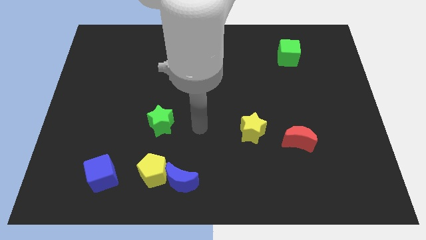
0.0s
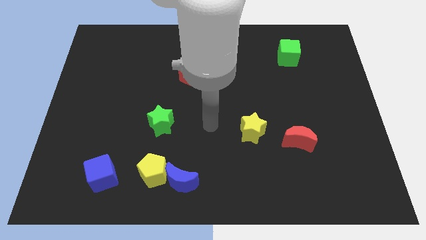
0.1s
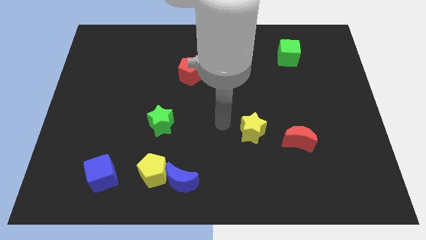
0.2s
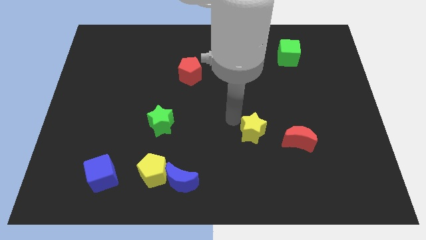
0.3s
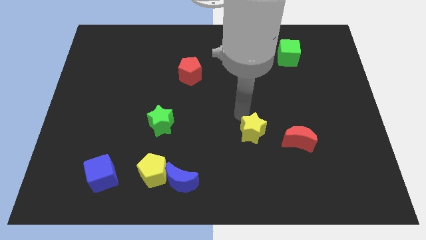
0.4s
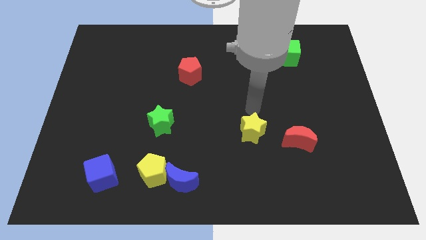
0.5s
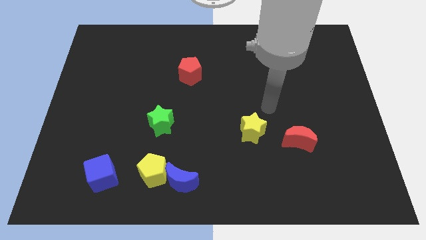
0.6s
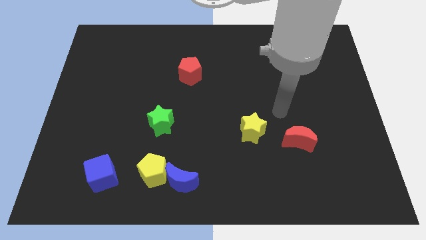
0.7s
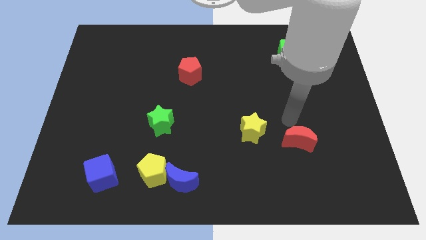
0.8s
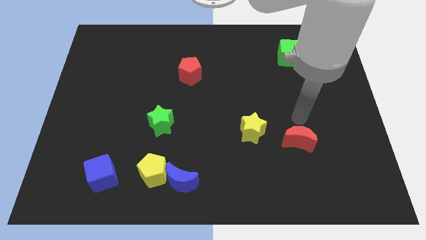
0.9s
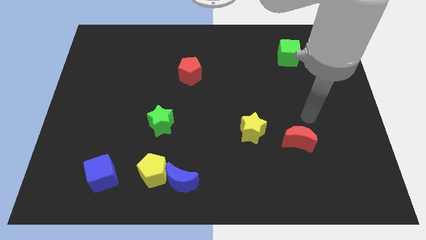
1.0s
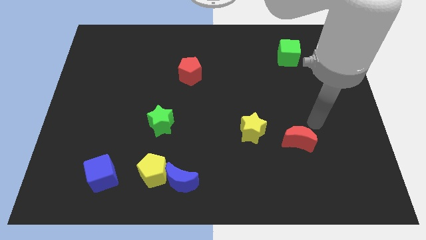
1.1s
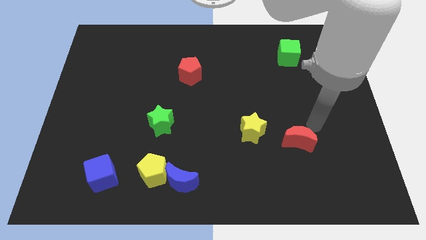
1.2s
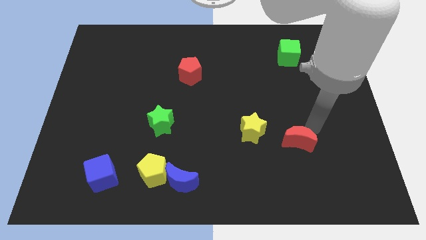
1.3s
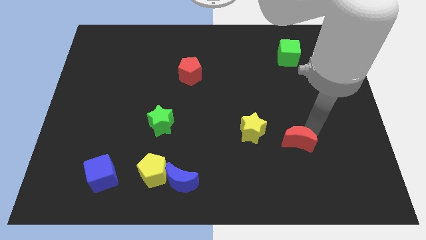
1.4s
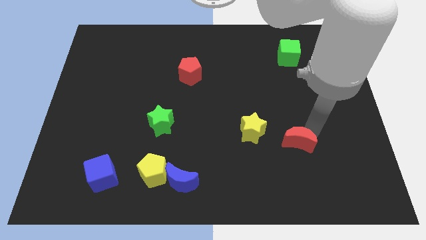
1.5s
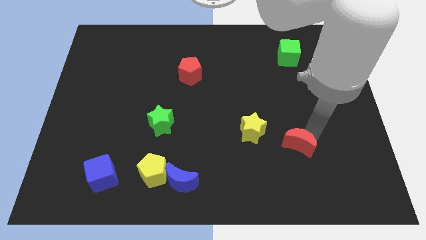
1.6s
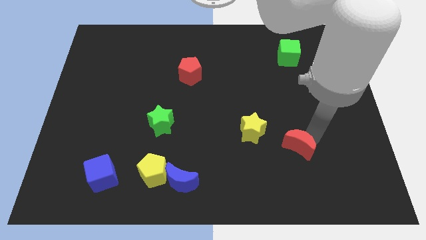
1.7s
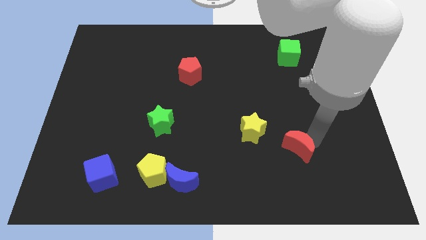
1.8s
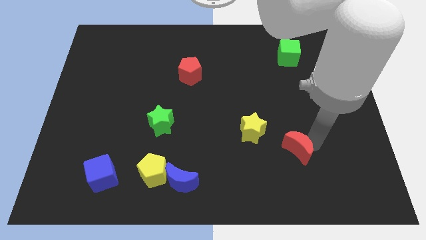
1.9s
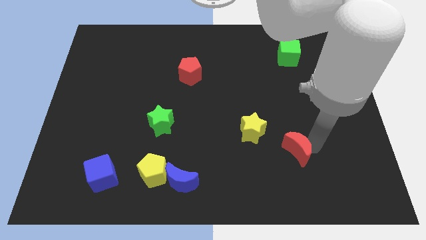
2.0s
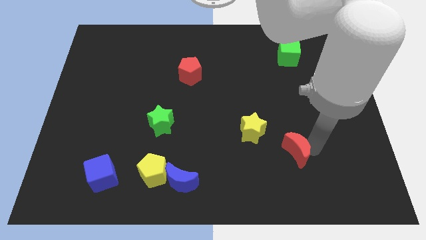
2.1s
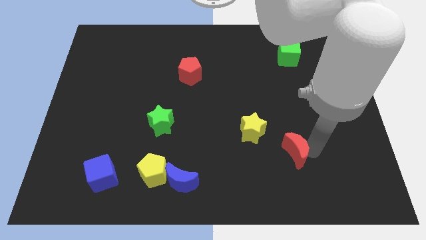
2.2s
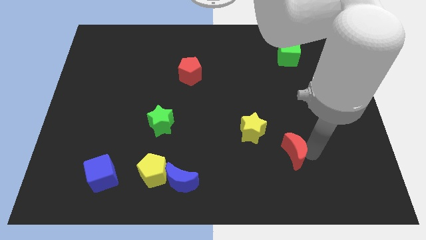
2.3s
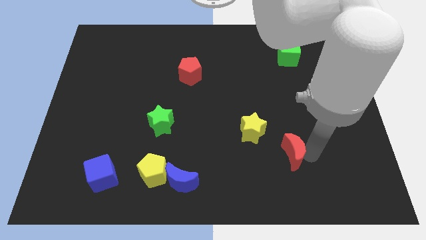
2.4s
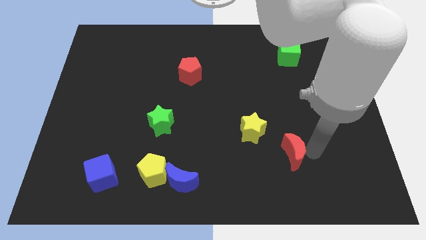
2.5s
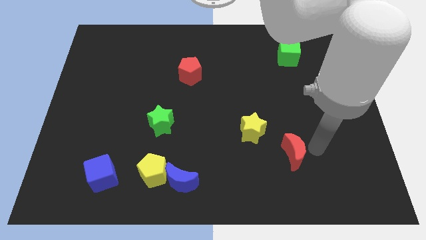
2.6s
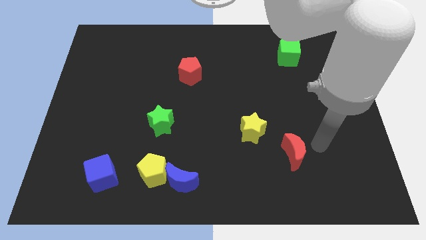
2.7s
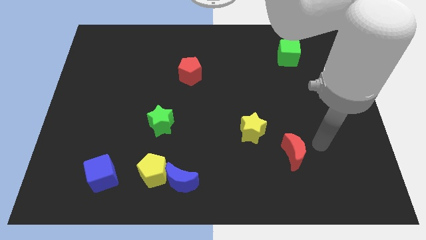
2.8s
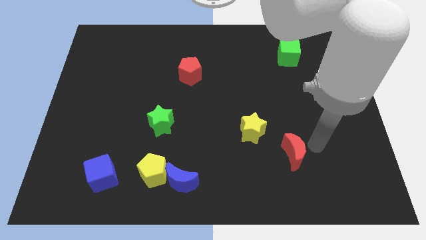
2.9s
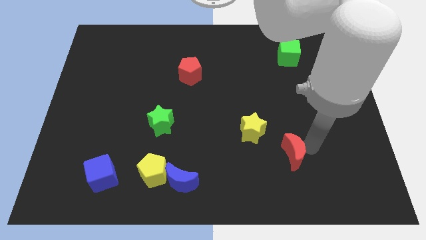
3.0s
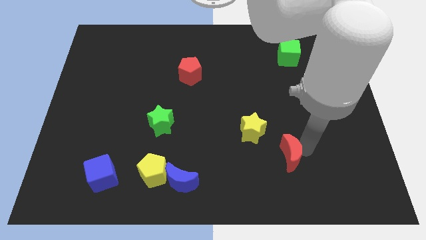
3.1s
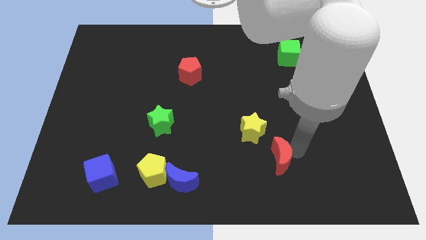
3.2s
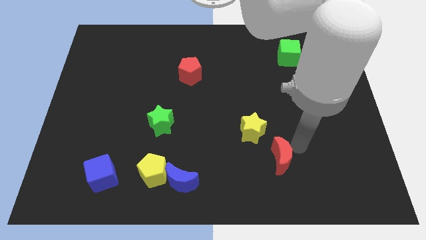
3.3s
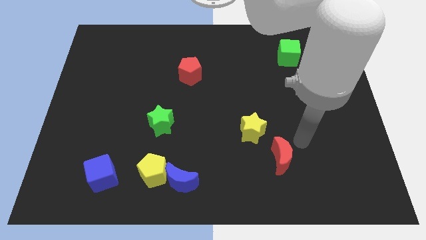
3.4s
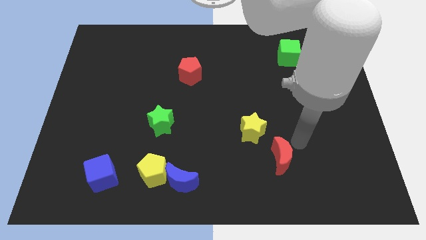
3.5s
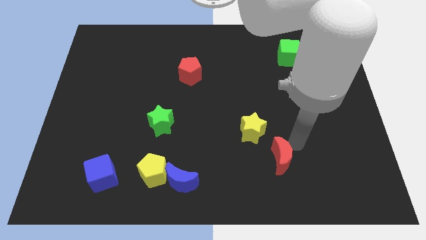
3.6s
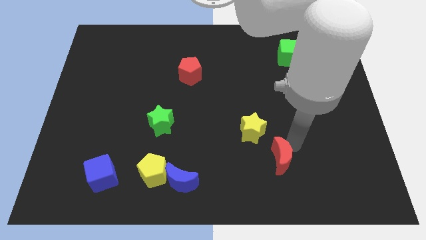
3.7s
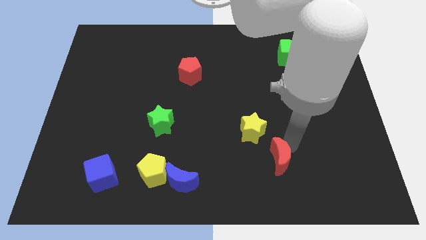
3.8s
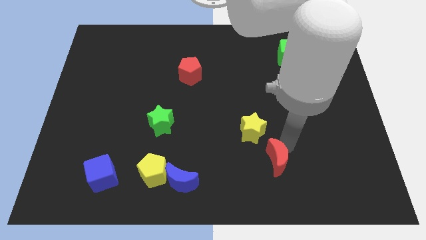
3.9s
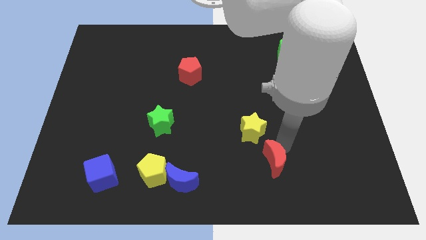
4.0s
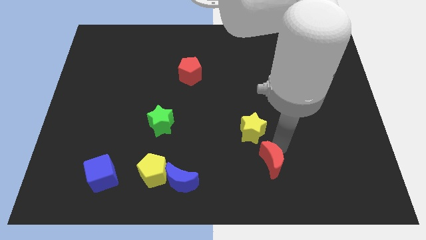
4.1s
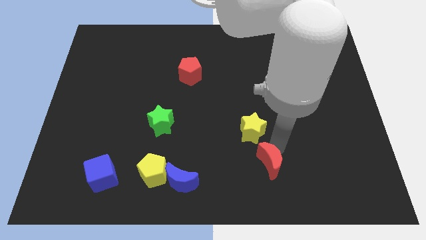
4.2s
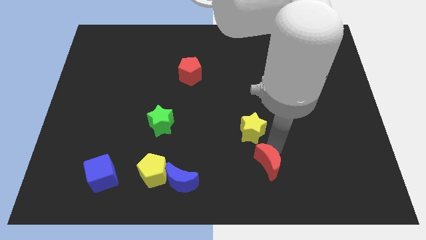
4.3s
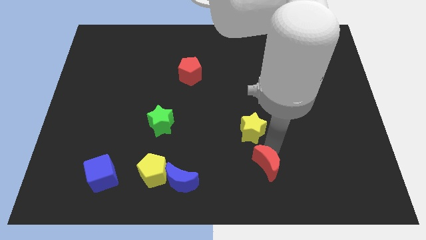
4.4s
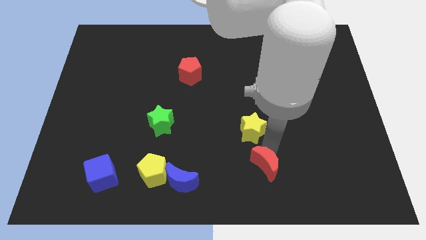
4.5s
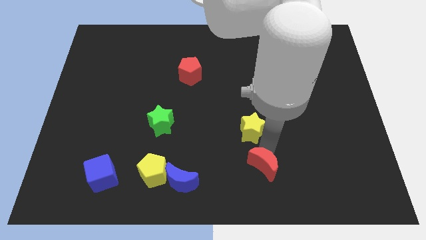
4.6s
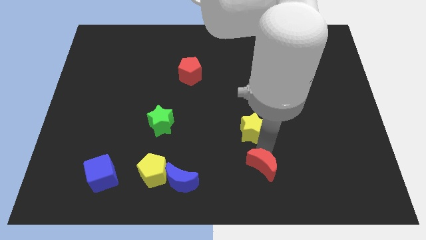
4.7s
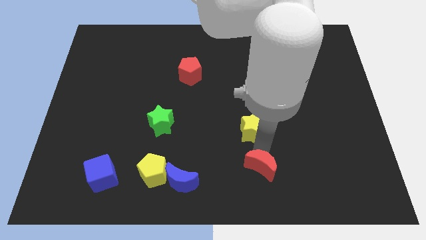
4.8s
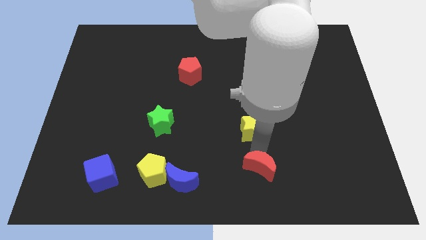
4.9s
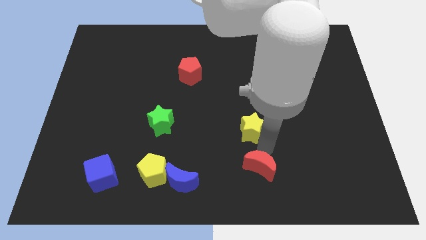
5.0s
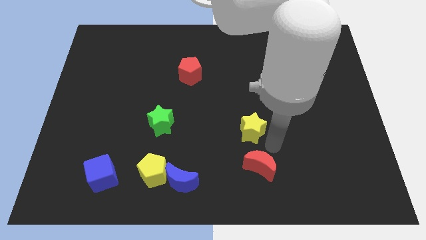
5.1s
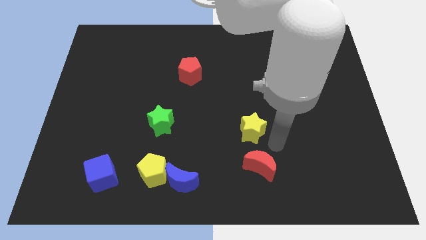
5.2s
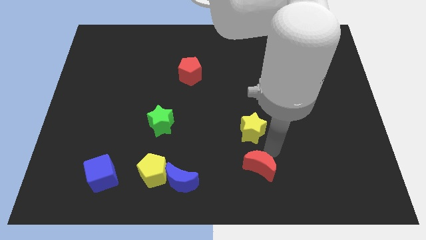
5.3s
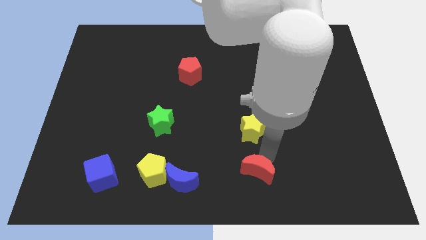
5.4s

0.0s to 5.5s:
slide the red moon to the bottom

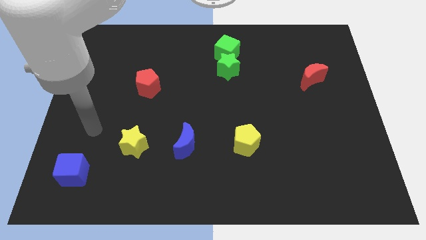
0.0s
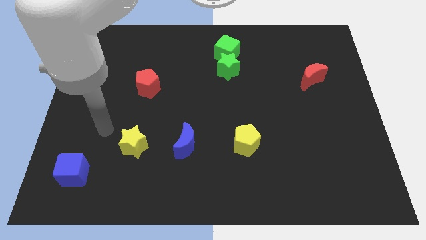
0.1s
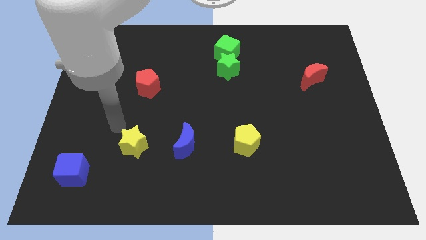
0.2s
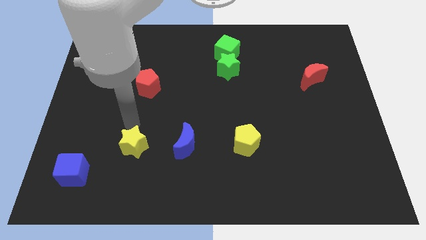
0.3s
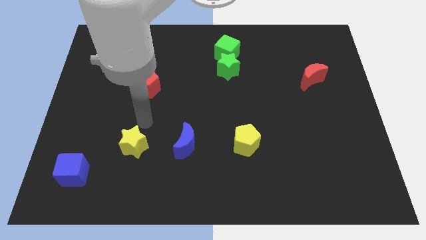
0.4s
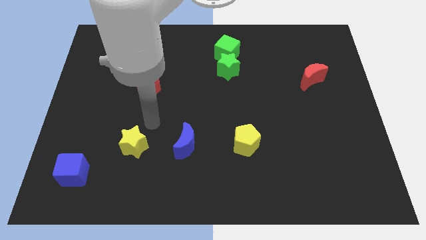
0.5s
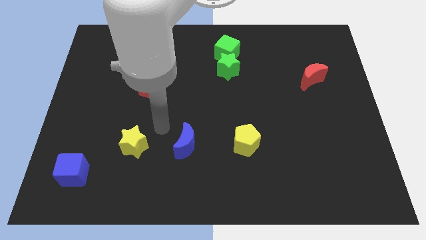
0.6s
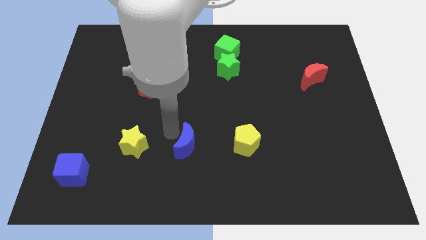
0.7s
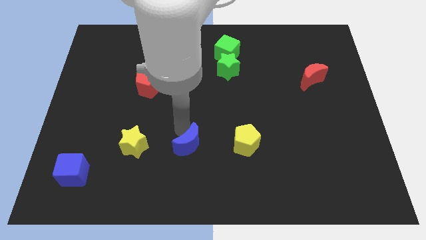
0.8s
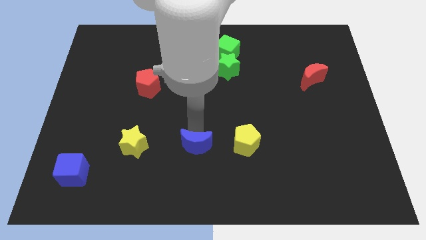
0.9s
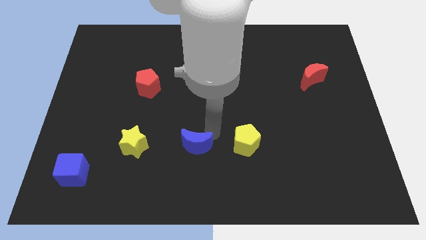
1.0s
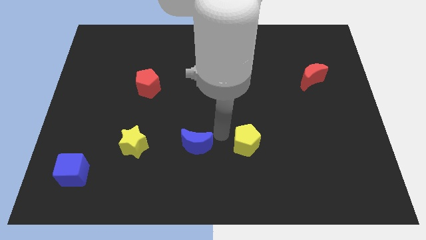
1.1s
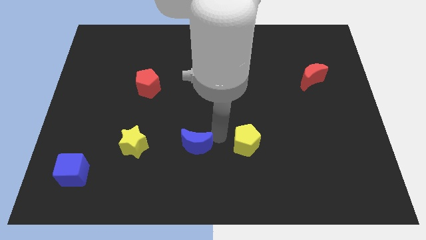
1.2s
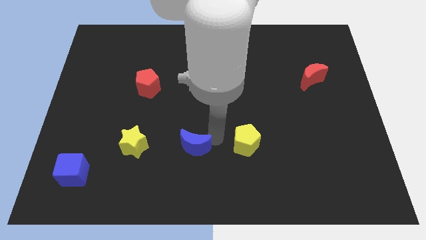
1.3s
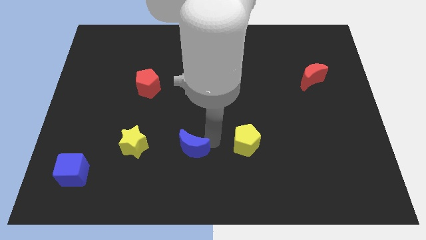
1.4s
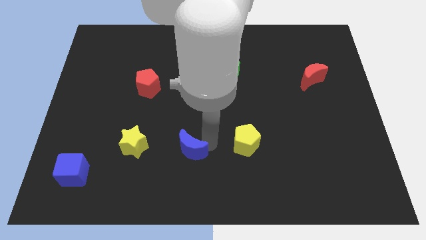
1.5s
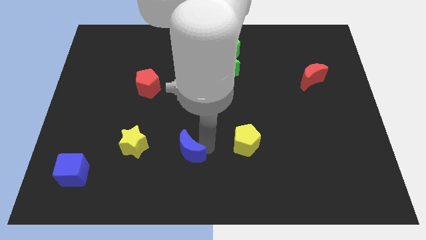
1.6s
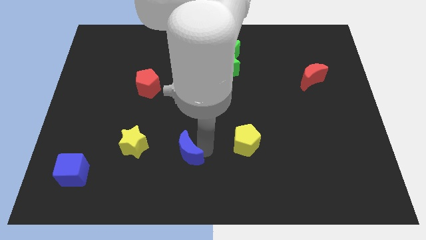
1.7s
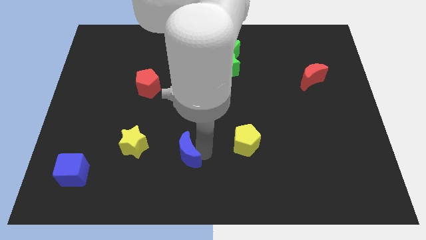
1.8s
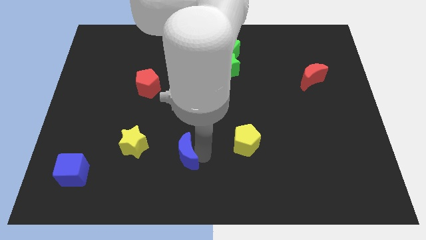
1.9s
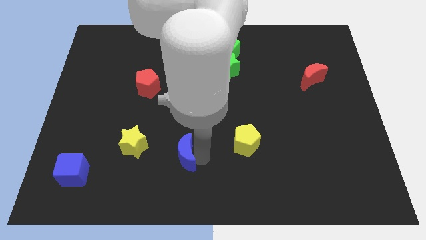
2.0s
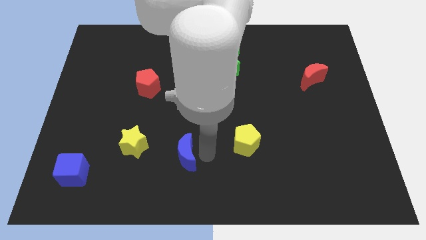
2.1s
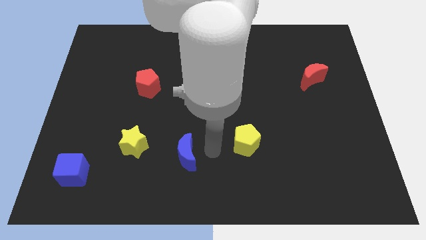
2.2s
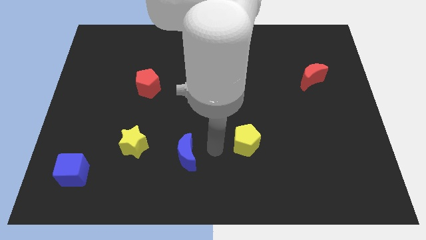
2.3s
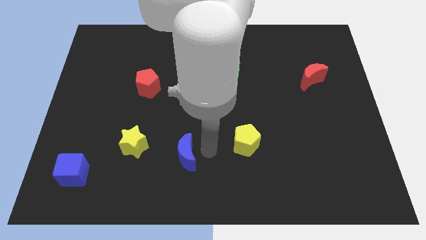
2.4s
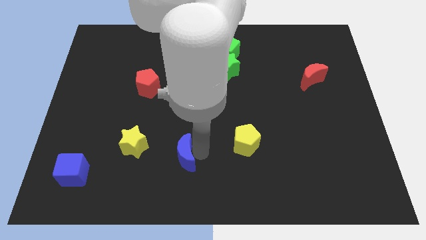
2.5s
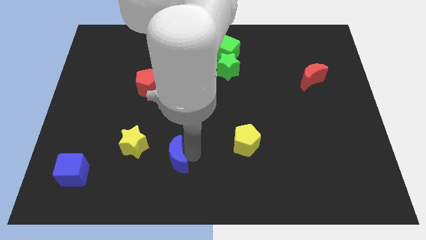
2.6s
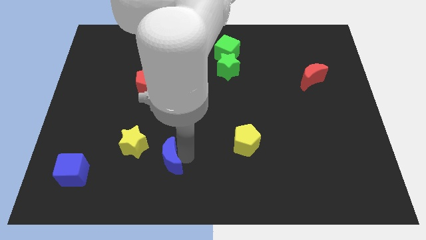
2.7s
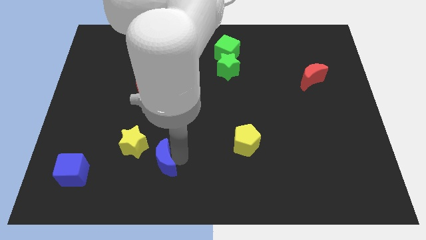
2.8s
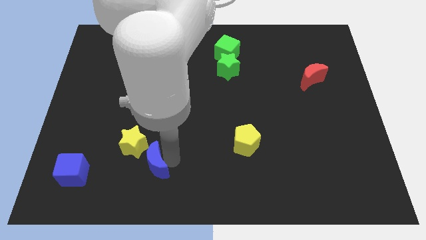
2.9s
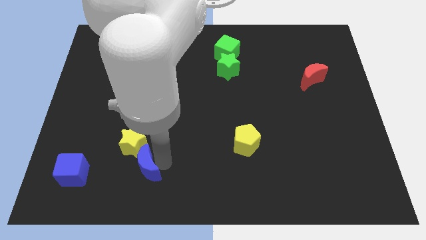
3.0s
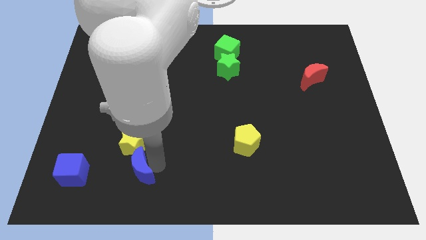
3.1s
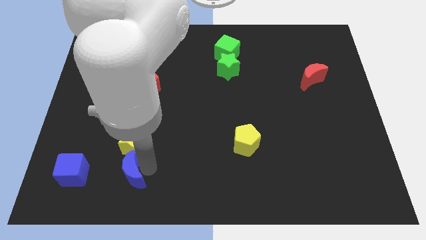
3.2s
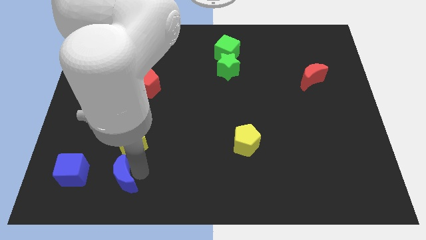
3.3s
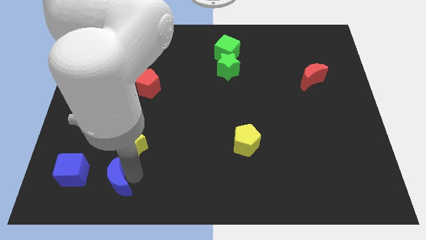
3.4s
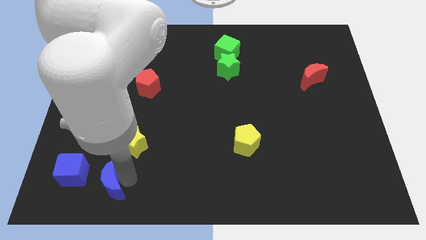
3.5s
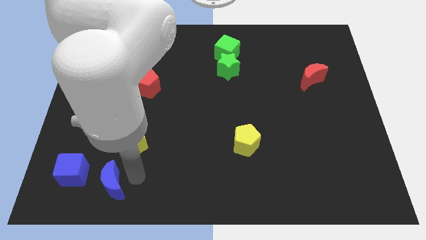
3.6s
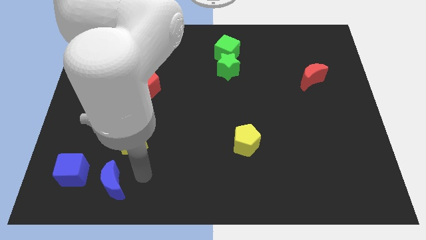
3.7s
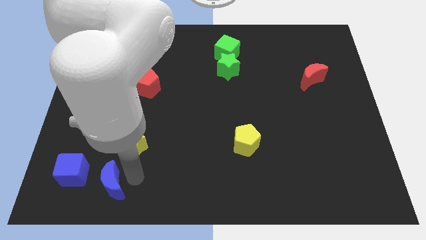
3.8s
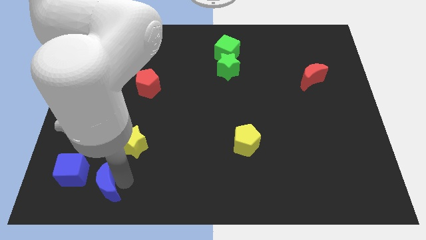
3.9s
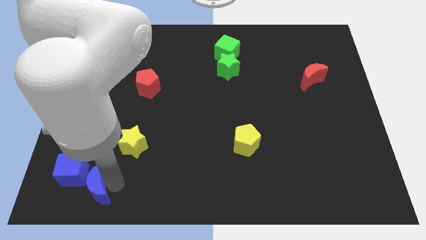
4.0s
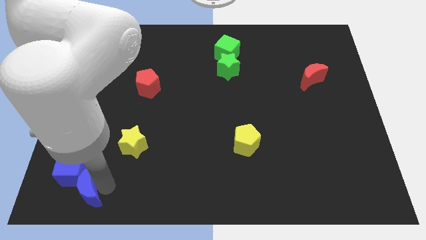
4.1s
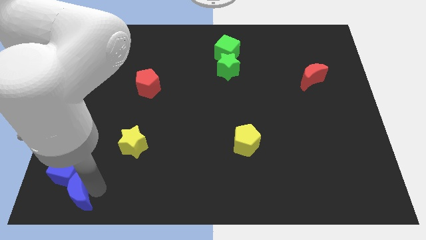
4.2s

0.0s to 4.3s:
put the blue moon to the lower left corner
